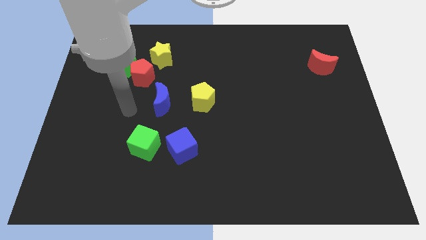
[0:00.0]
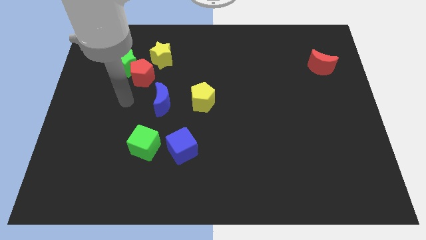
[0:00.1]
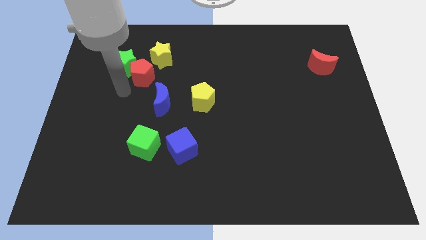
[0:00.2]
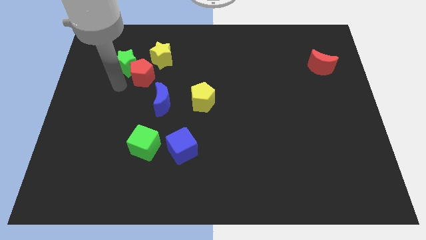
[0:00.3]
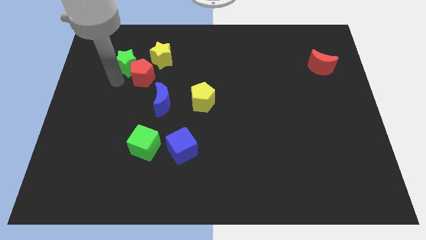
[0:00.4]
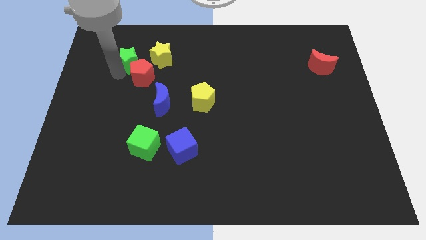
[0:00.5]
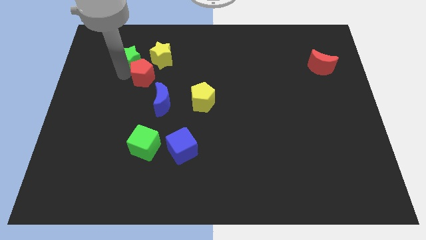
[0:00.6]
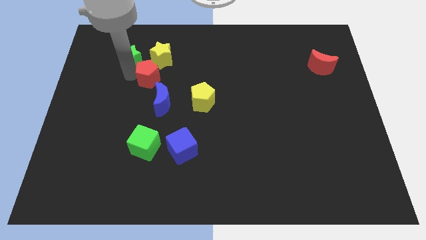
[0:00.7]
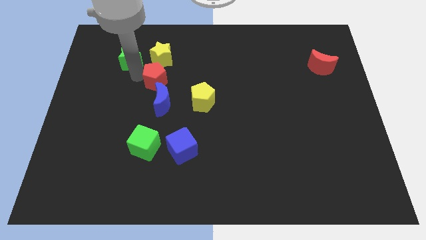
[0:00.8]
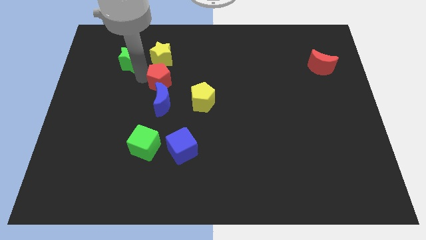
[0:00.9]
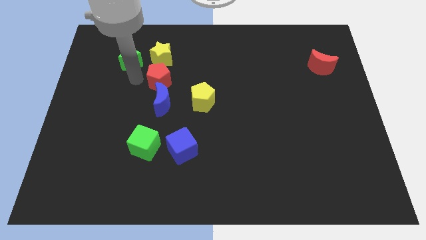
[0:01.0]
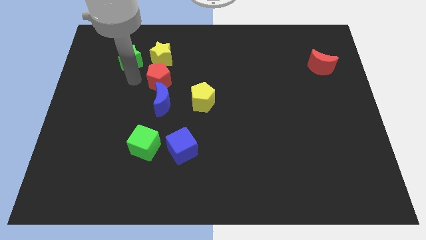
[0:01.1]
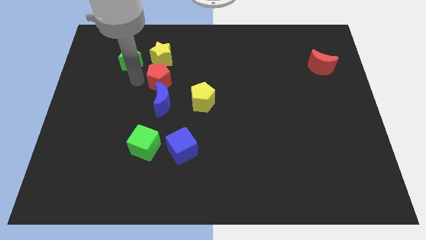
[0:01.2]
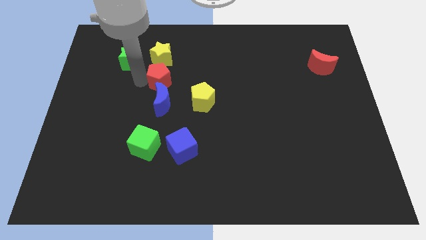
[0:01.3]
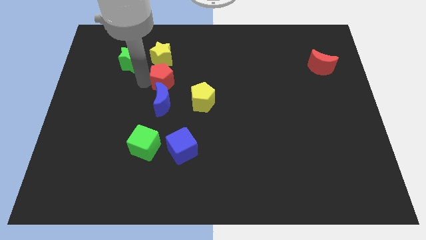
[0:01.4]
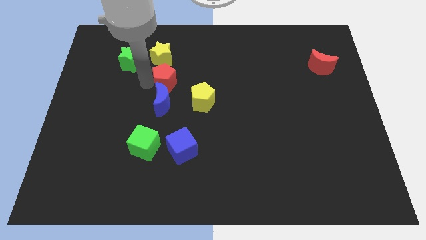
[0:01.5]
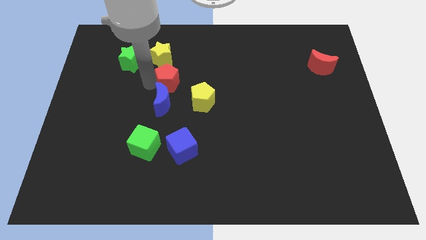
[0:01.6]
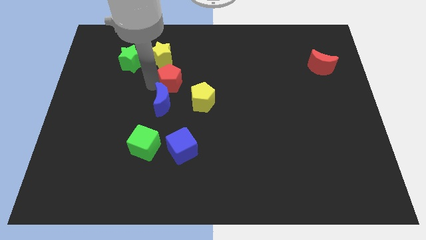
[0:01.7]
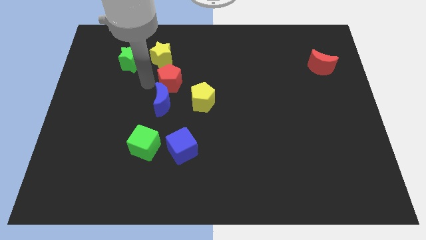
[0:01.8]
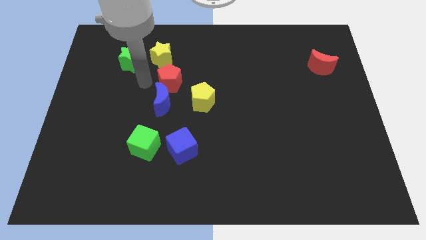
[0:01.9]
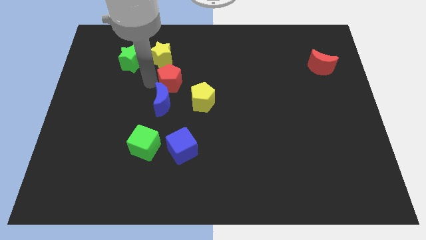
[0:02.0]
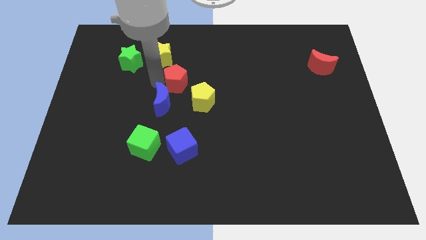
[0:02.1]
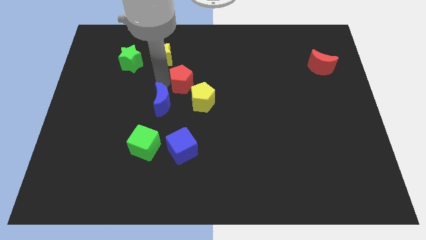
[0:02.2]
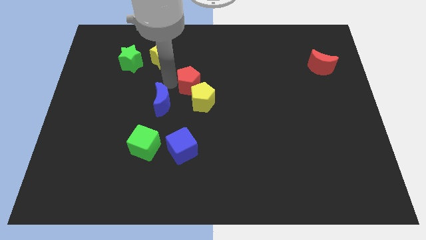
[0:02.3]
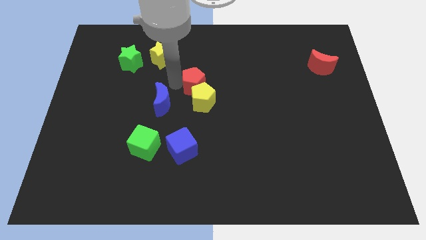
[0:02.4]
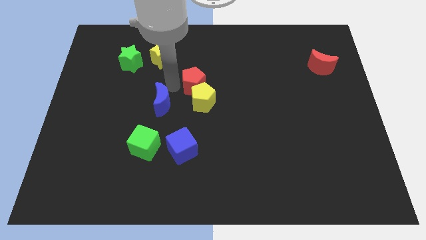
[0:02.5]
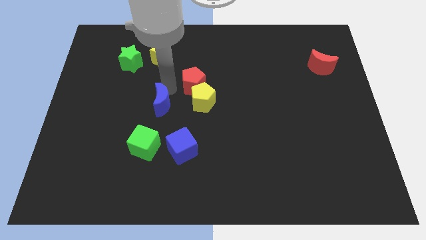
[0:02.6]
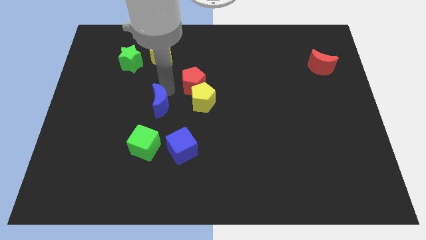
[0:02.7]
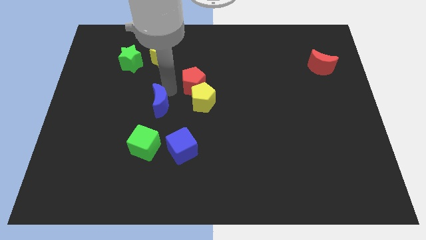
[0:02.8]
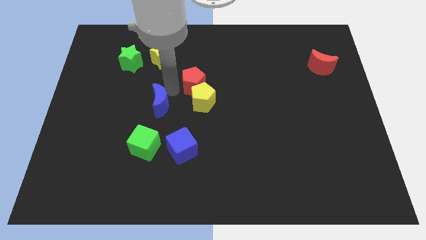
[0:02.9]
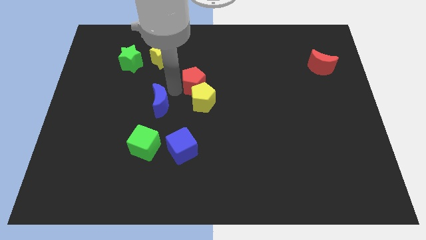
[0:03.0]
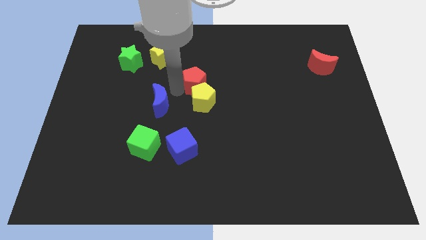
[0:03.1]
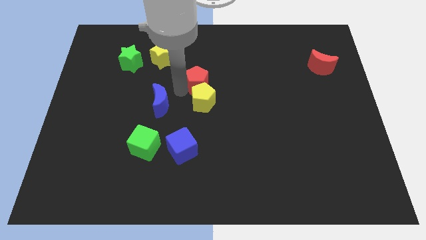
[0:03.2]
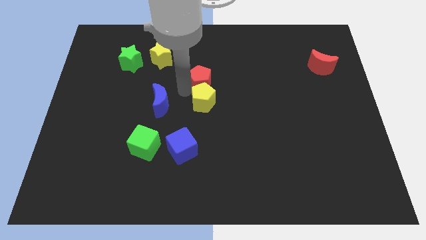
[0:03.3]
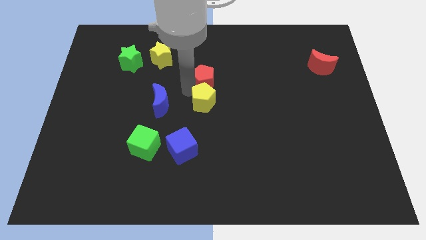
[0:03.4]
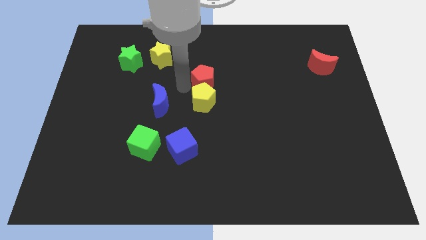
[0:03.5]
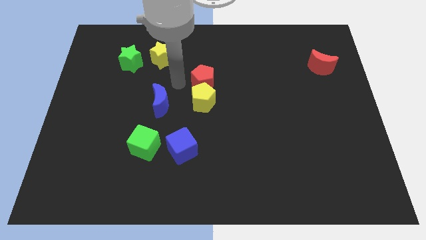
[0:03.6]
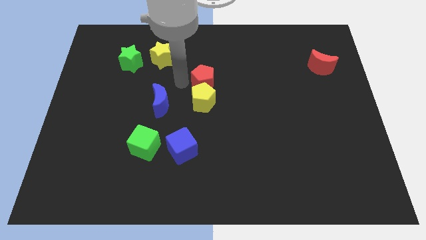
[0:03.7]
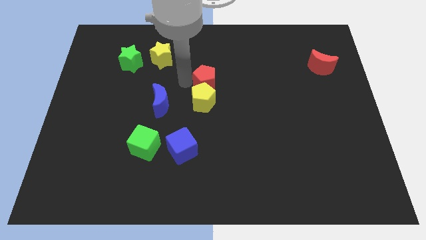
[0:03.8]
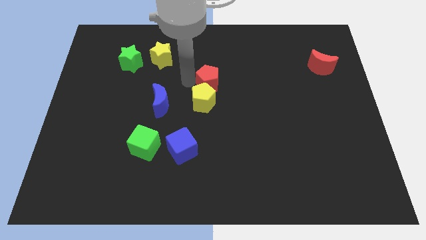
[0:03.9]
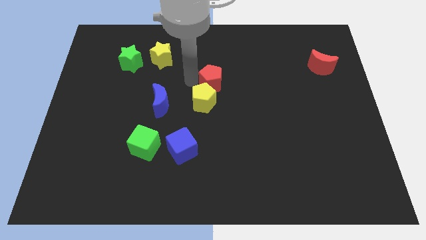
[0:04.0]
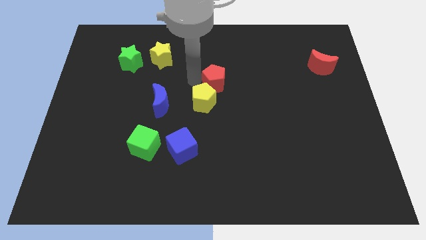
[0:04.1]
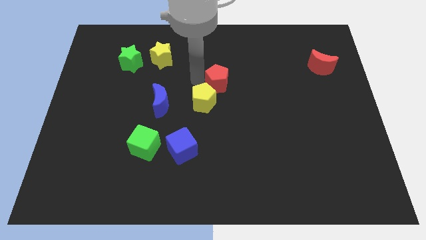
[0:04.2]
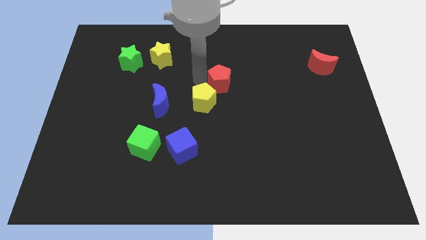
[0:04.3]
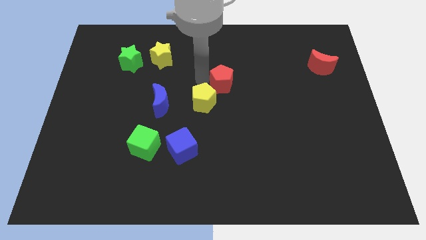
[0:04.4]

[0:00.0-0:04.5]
move the red pentagon right

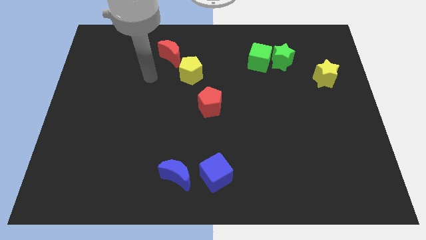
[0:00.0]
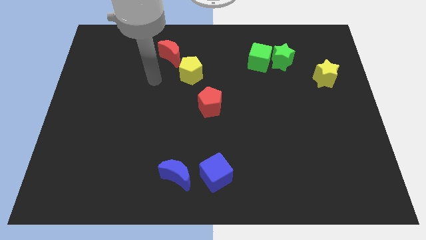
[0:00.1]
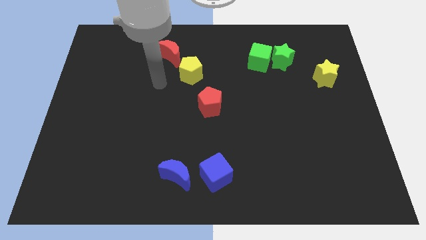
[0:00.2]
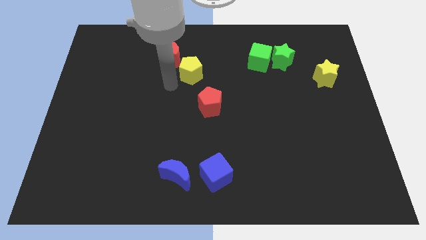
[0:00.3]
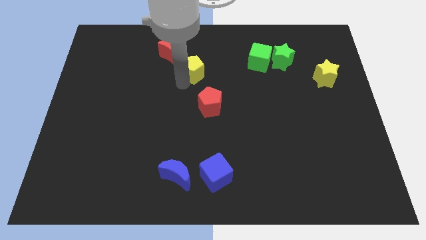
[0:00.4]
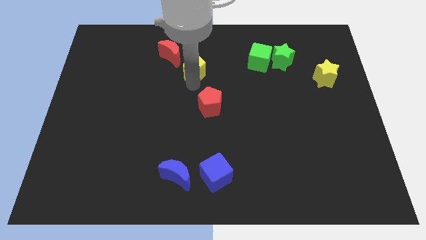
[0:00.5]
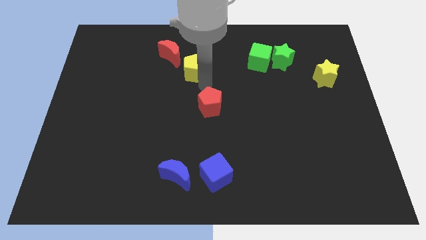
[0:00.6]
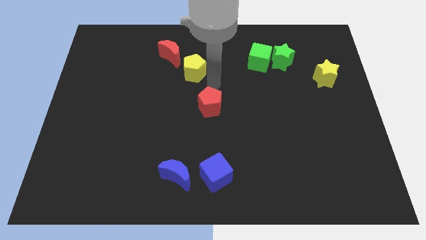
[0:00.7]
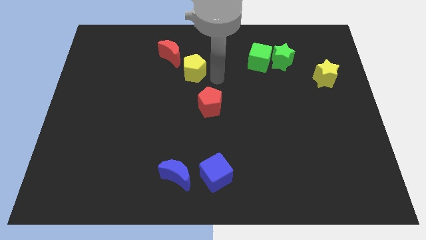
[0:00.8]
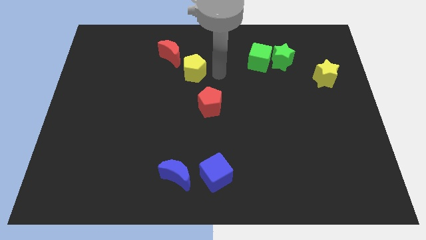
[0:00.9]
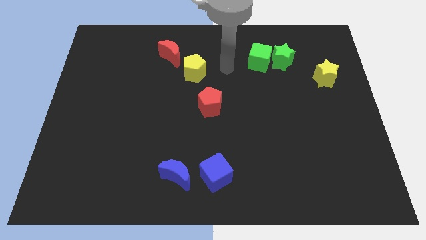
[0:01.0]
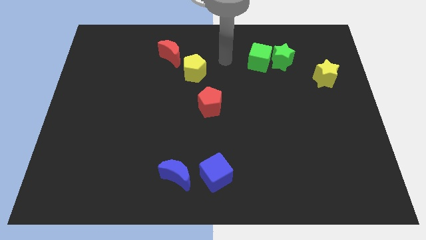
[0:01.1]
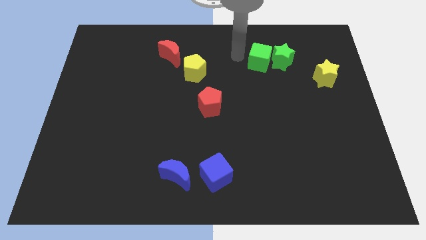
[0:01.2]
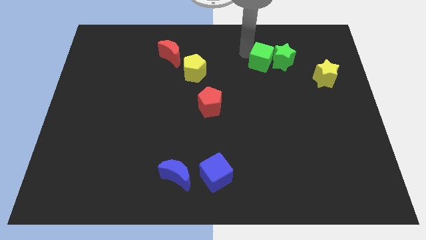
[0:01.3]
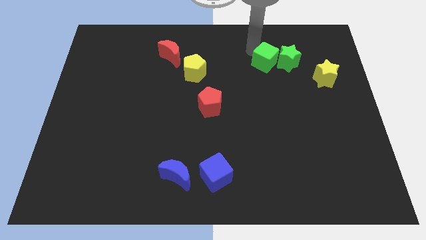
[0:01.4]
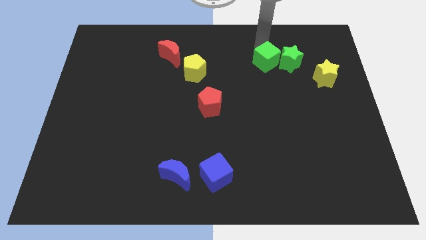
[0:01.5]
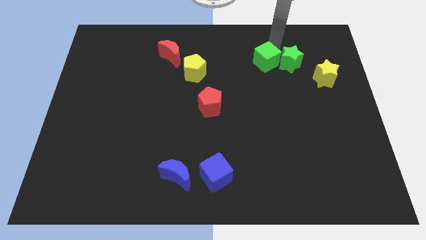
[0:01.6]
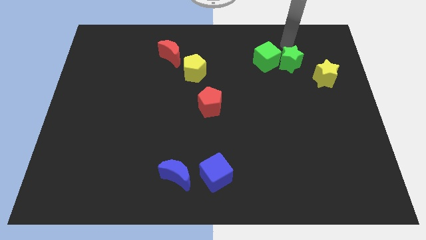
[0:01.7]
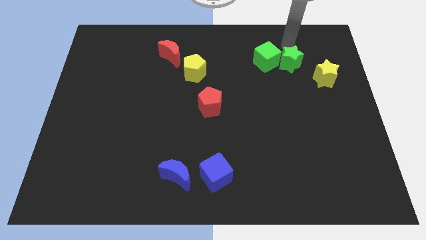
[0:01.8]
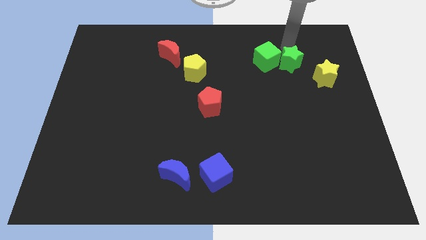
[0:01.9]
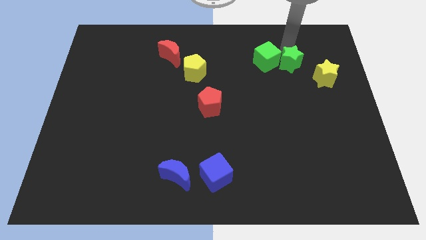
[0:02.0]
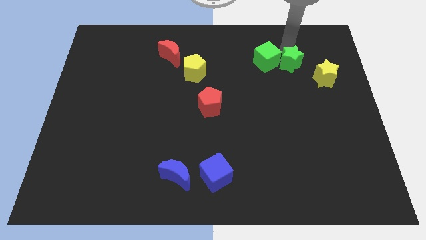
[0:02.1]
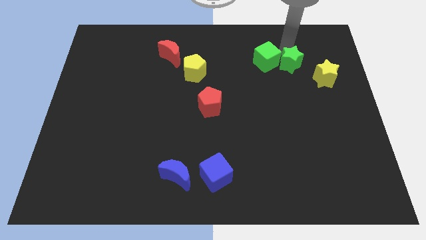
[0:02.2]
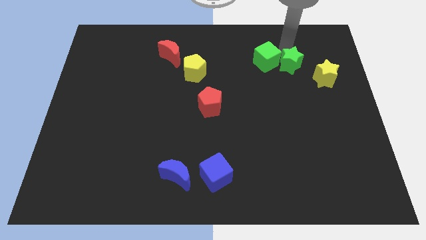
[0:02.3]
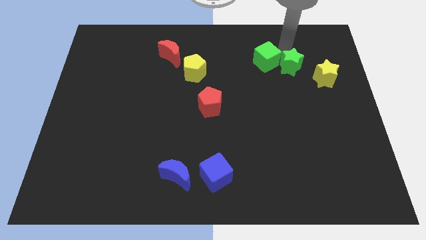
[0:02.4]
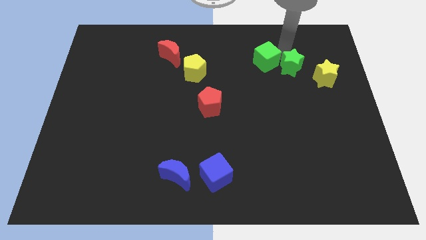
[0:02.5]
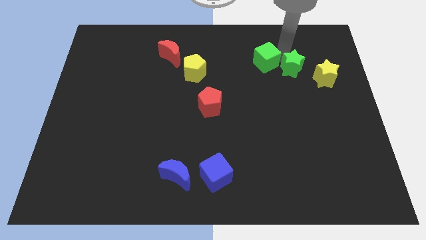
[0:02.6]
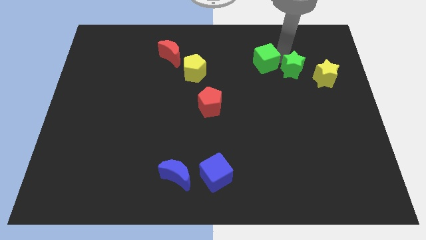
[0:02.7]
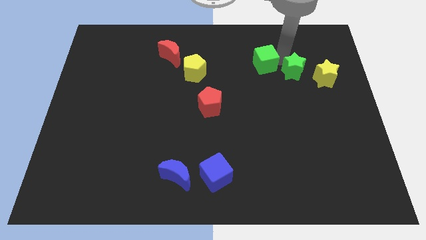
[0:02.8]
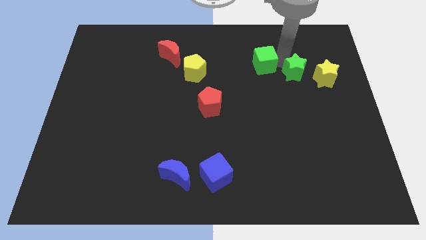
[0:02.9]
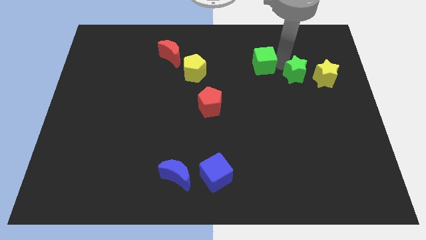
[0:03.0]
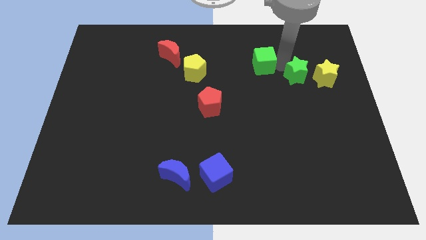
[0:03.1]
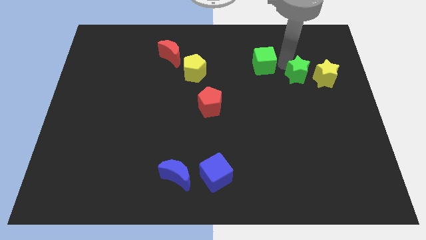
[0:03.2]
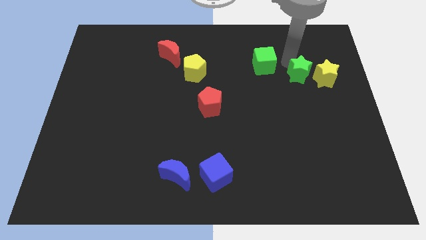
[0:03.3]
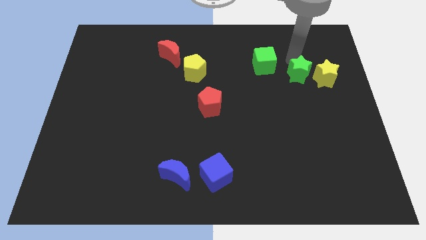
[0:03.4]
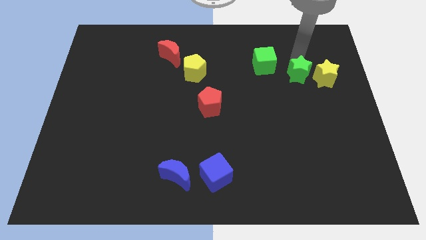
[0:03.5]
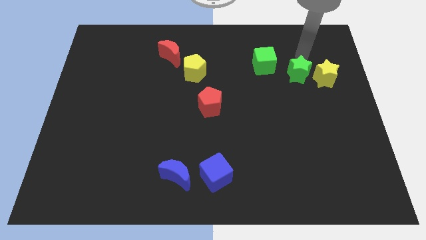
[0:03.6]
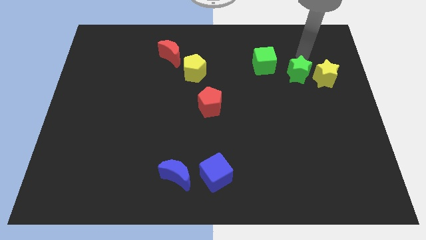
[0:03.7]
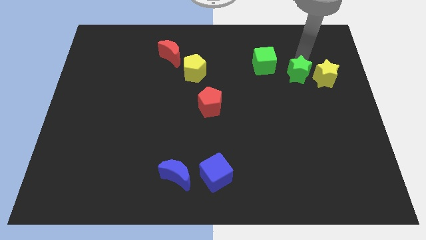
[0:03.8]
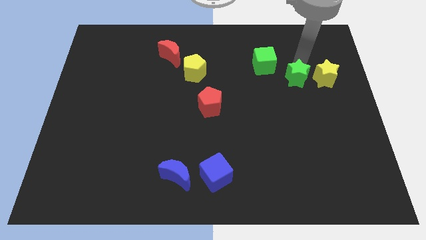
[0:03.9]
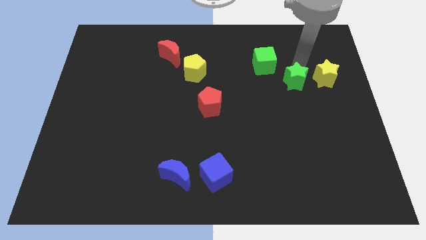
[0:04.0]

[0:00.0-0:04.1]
move the green star slightly downwards
